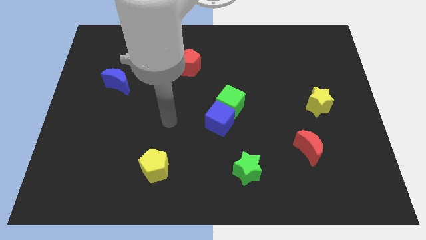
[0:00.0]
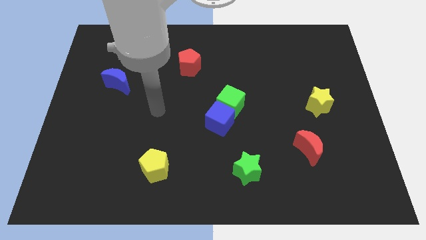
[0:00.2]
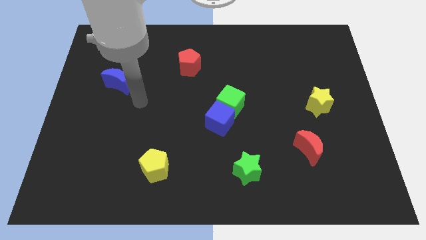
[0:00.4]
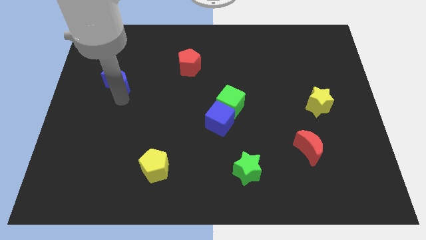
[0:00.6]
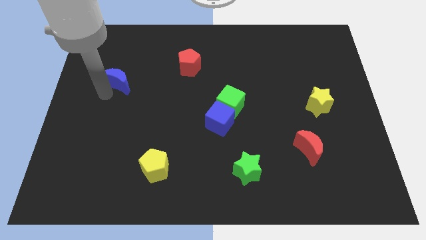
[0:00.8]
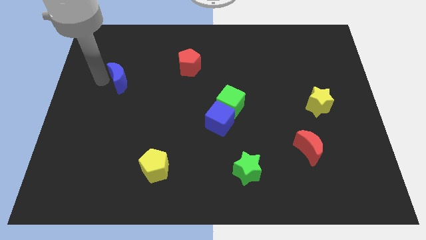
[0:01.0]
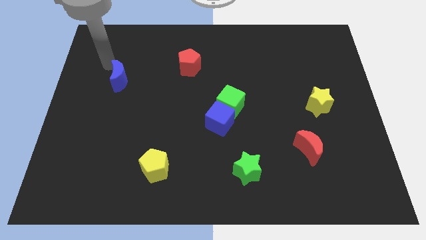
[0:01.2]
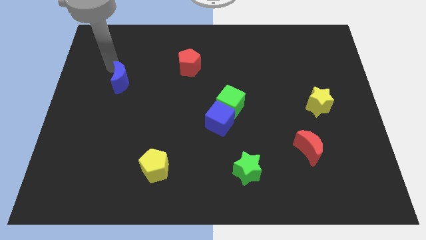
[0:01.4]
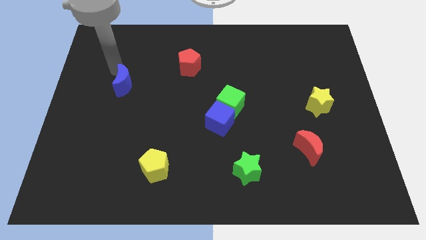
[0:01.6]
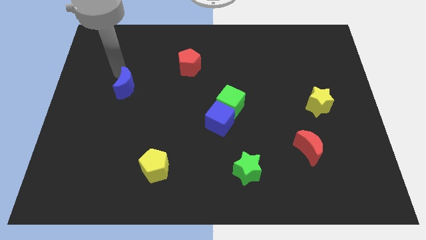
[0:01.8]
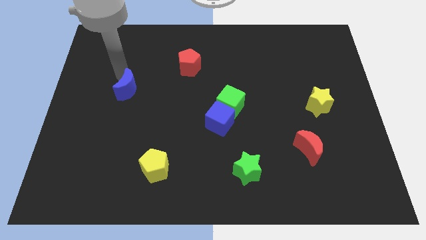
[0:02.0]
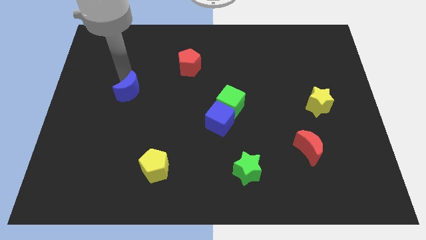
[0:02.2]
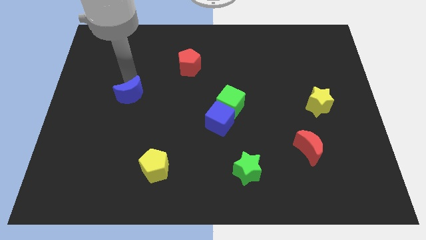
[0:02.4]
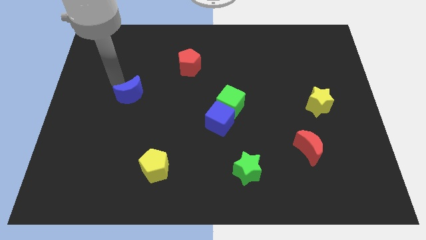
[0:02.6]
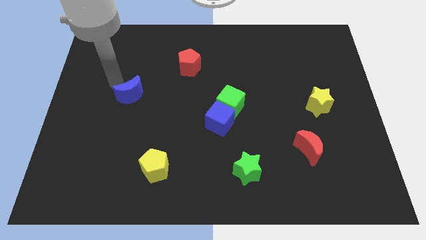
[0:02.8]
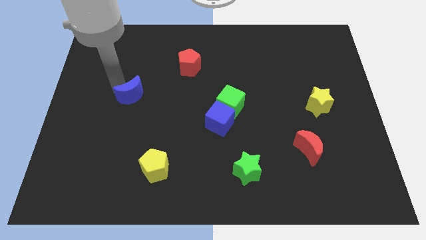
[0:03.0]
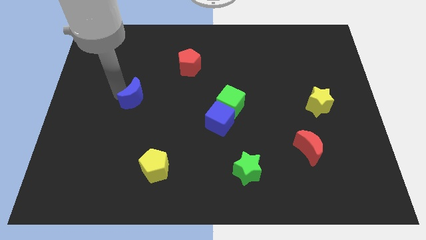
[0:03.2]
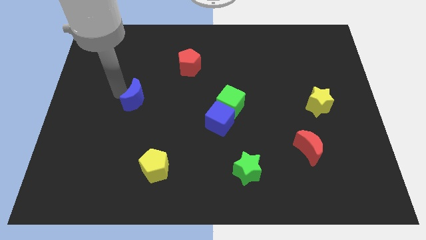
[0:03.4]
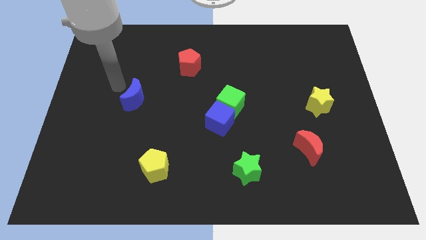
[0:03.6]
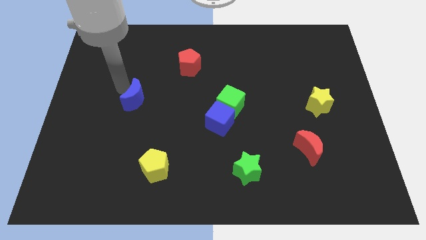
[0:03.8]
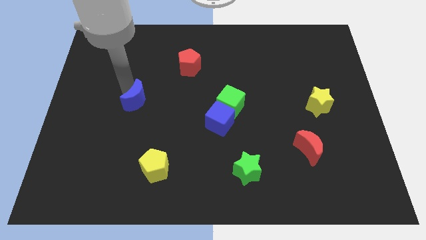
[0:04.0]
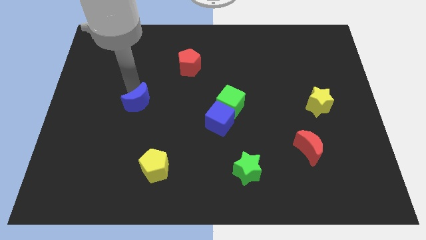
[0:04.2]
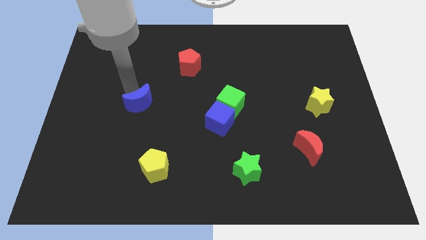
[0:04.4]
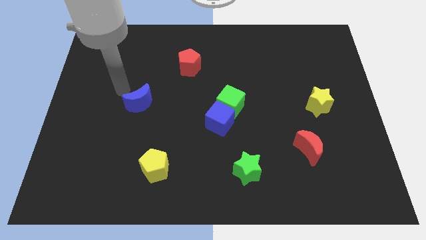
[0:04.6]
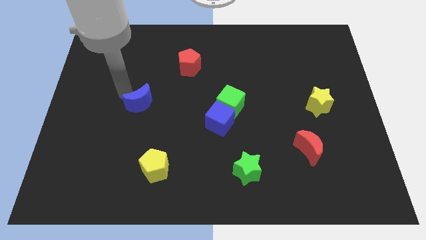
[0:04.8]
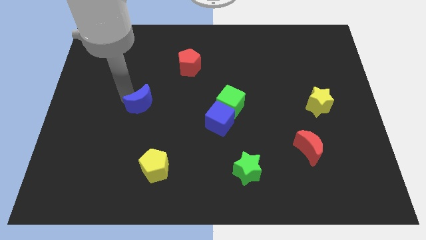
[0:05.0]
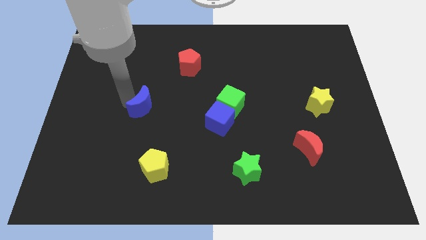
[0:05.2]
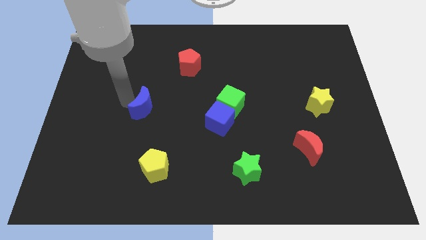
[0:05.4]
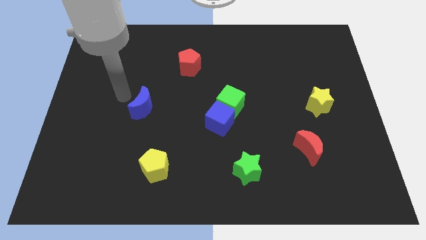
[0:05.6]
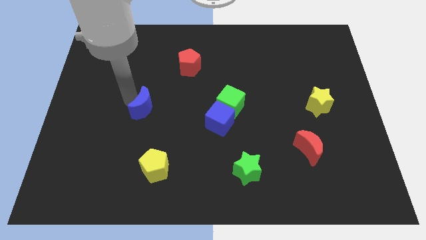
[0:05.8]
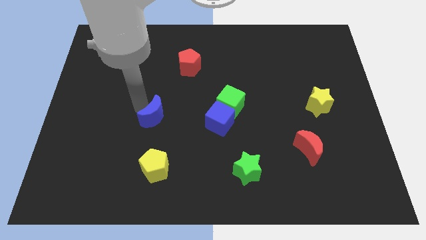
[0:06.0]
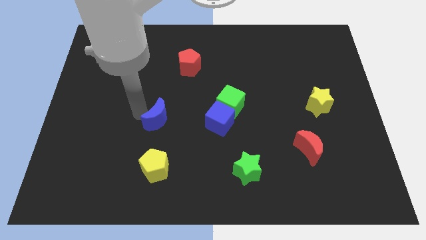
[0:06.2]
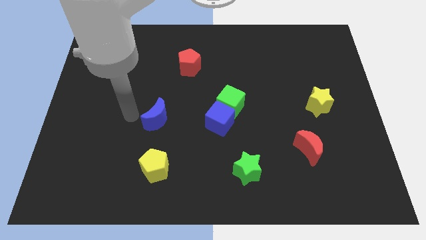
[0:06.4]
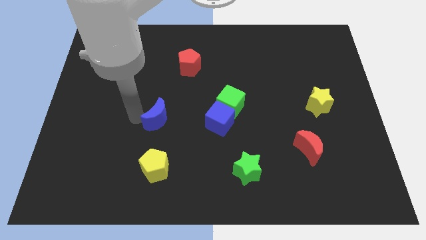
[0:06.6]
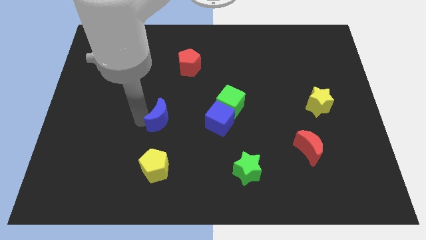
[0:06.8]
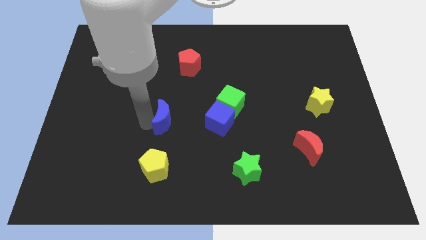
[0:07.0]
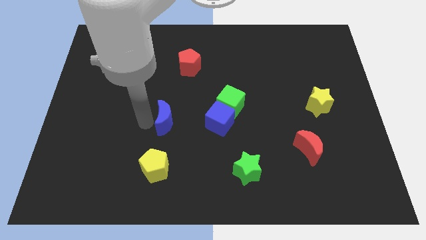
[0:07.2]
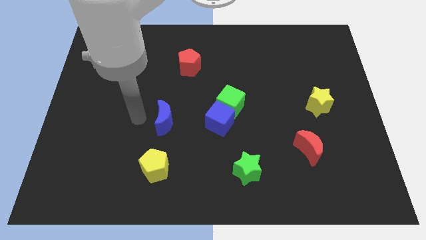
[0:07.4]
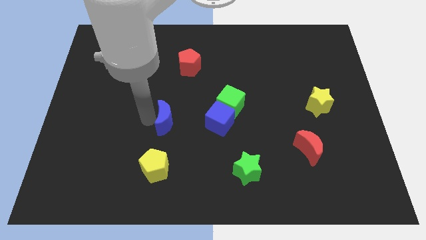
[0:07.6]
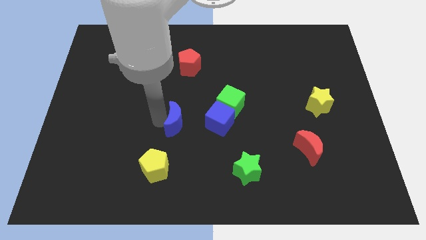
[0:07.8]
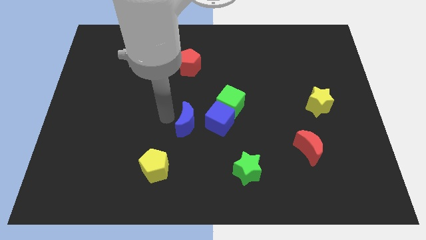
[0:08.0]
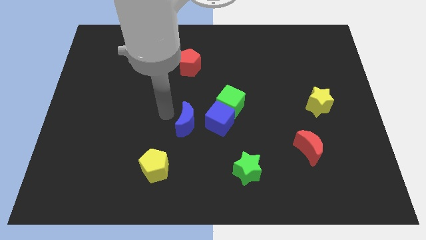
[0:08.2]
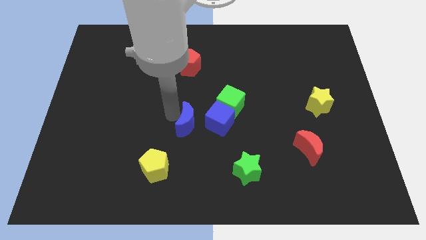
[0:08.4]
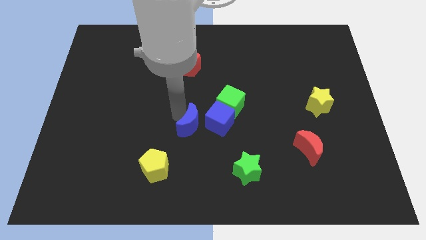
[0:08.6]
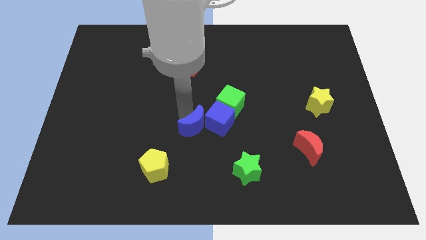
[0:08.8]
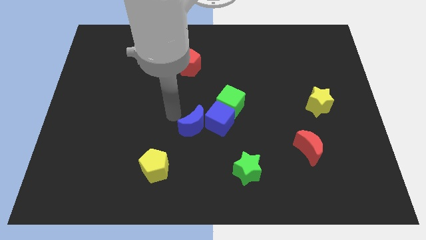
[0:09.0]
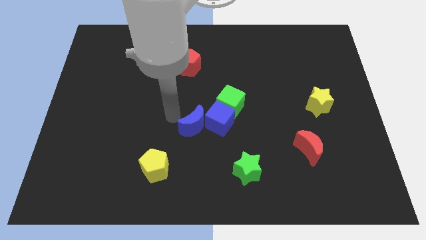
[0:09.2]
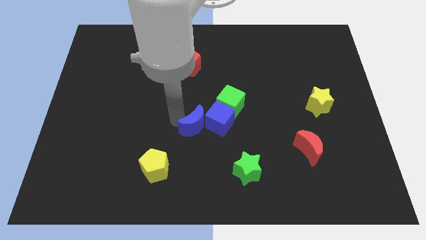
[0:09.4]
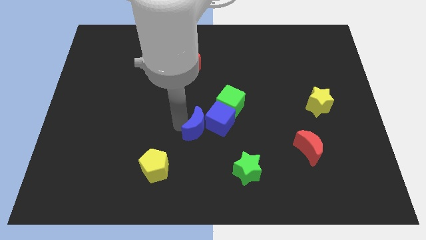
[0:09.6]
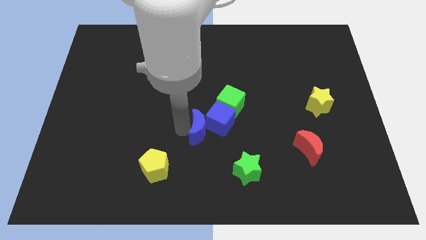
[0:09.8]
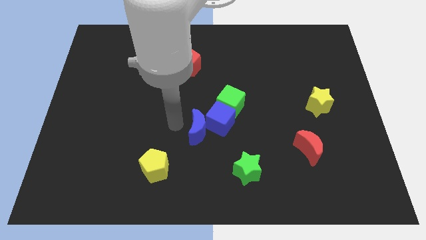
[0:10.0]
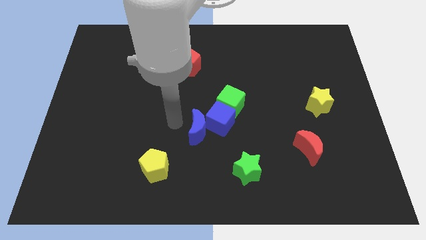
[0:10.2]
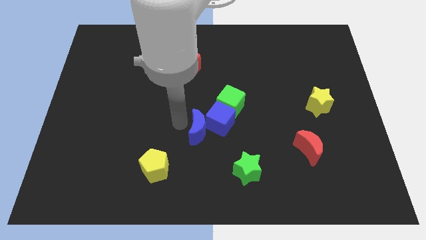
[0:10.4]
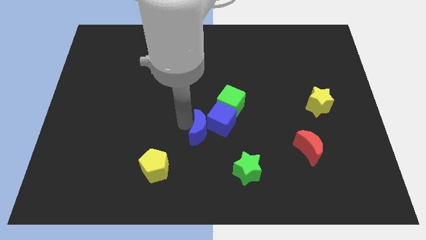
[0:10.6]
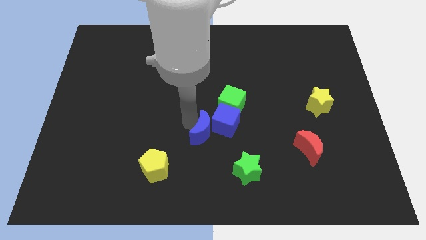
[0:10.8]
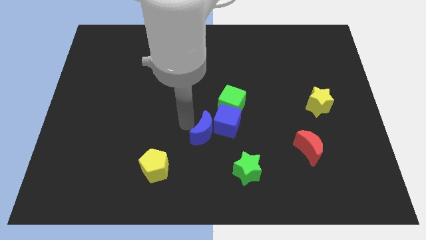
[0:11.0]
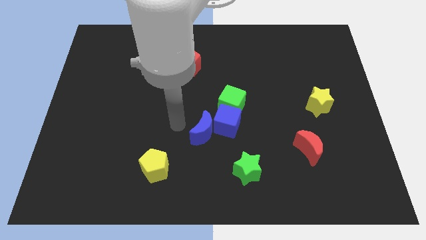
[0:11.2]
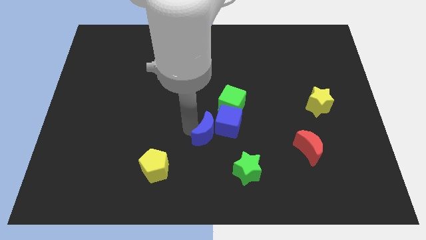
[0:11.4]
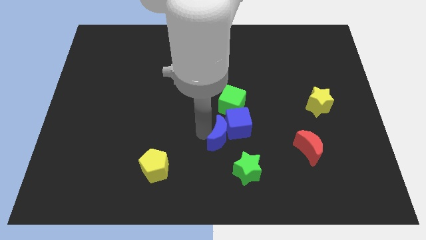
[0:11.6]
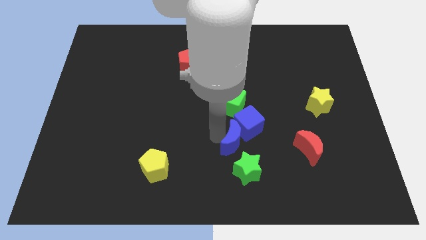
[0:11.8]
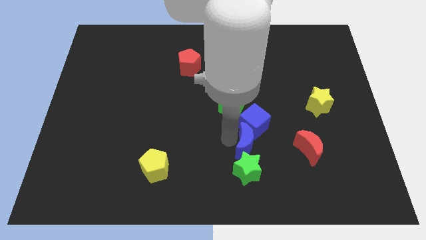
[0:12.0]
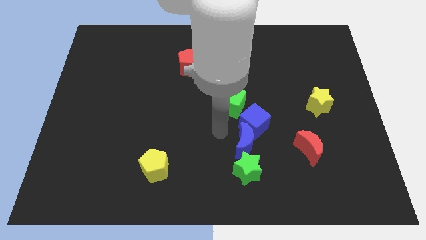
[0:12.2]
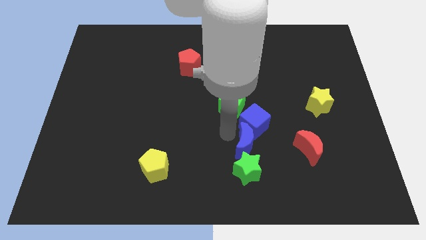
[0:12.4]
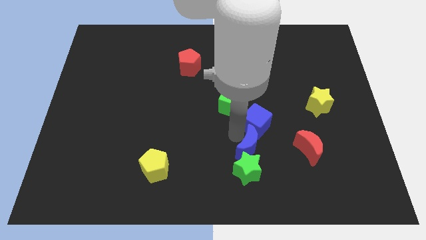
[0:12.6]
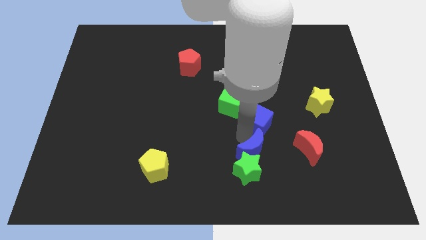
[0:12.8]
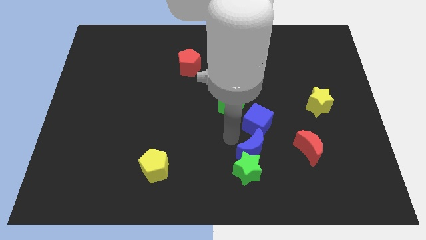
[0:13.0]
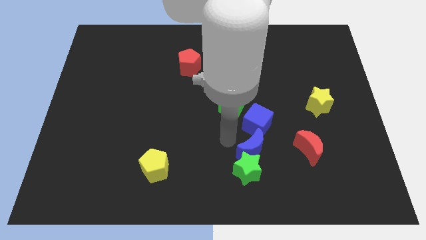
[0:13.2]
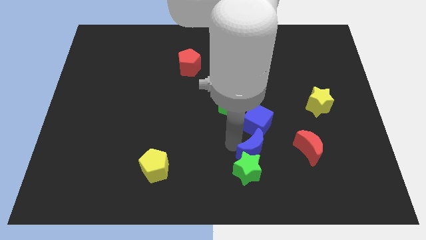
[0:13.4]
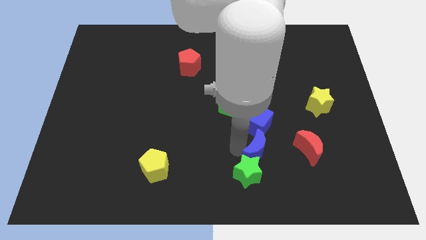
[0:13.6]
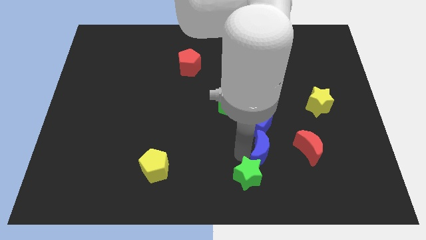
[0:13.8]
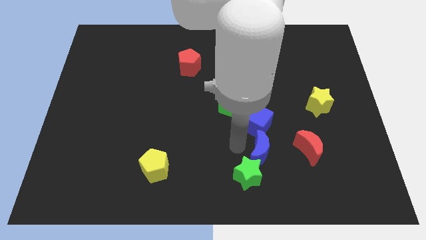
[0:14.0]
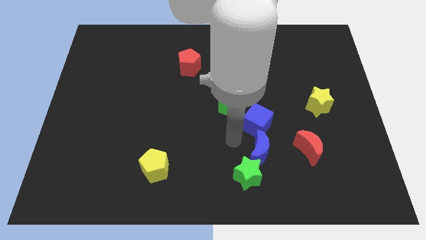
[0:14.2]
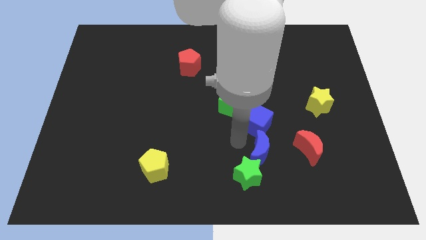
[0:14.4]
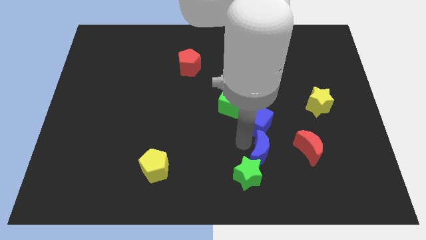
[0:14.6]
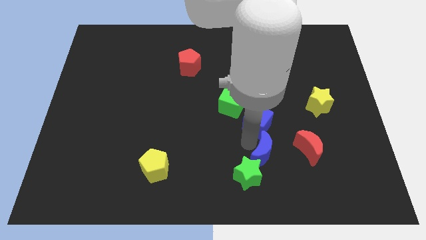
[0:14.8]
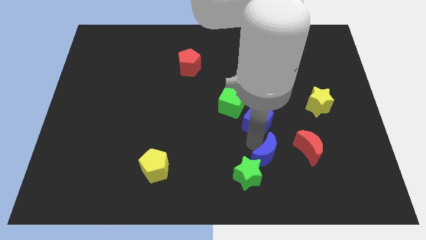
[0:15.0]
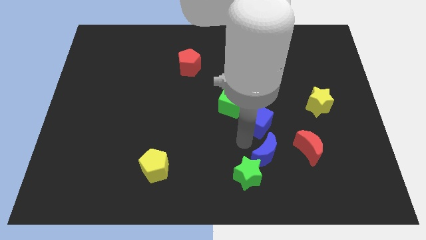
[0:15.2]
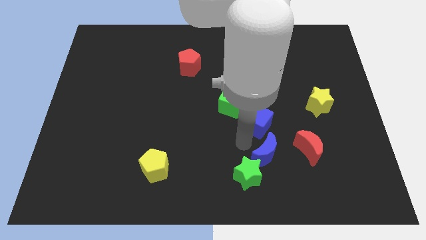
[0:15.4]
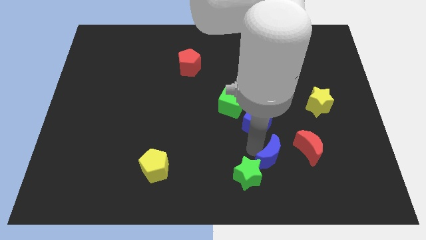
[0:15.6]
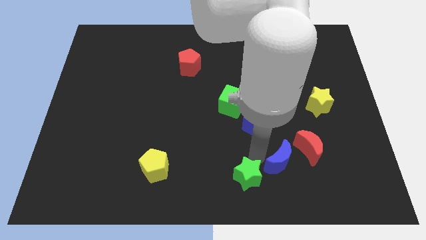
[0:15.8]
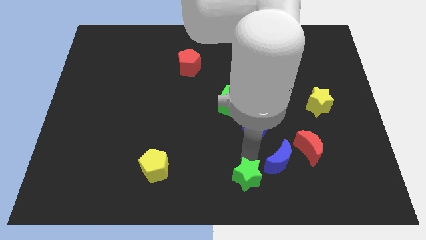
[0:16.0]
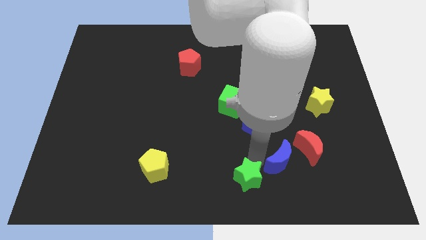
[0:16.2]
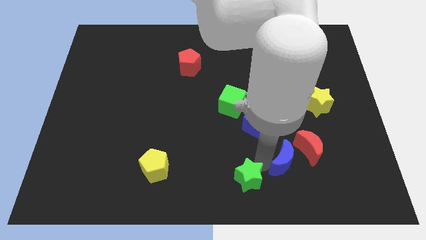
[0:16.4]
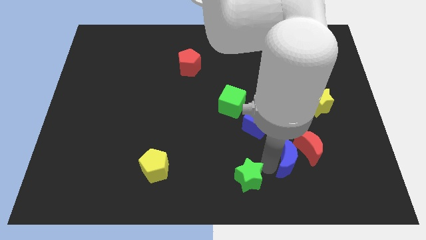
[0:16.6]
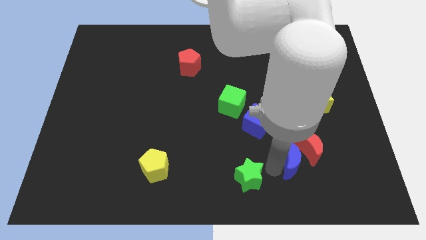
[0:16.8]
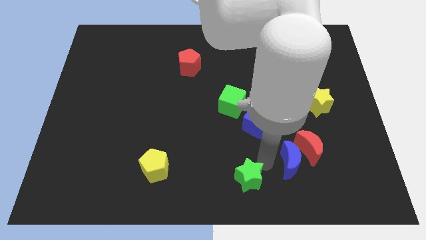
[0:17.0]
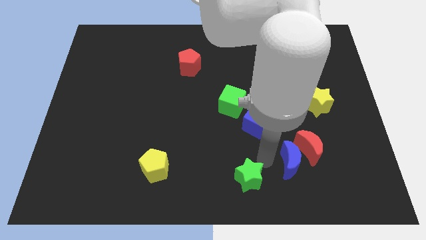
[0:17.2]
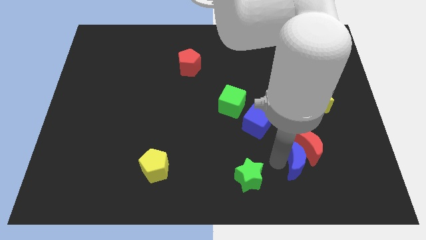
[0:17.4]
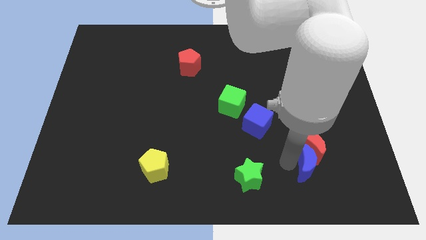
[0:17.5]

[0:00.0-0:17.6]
push the blue moon diagonally down and to the right of the red moon
